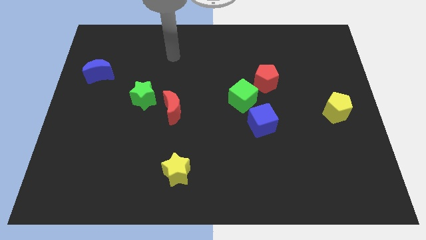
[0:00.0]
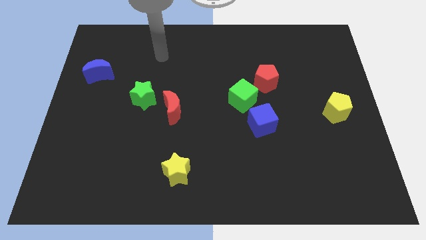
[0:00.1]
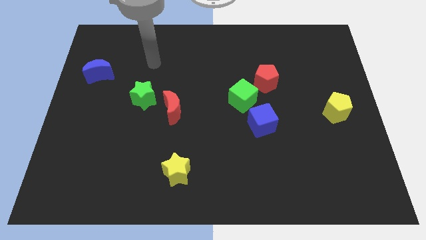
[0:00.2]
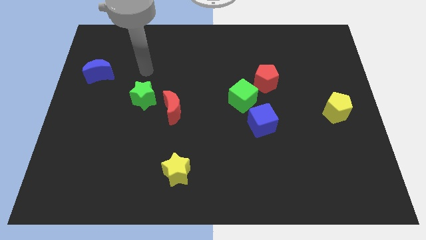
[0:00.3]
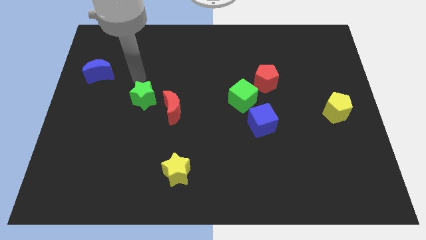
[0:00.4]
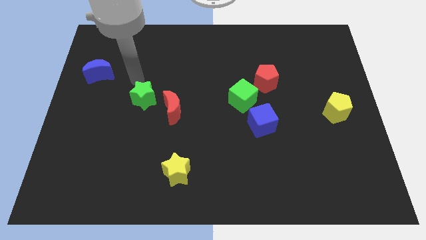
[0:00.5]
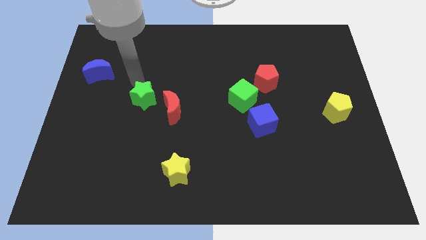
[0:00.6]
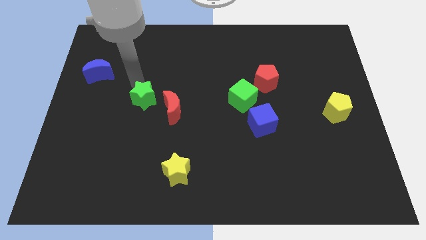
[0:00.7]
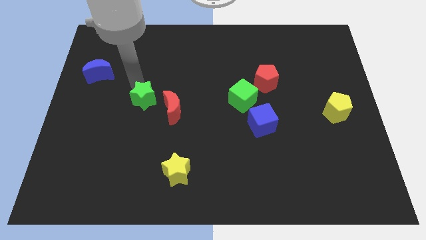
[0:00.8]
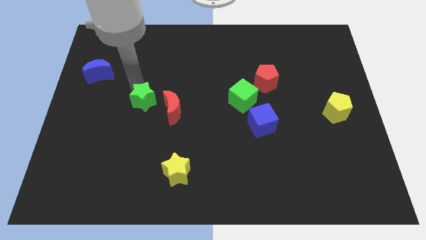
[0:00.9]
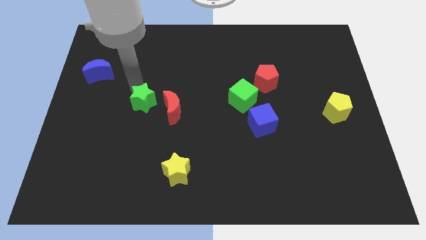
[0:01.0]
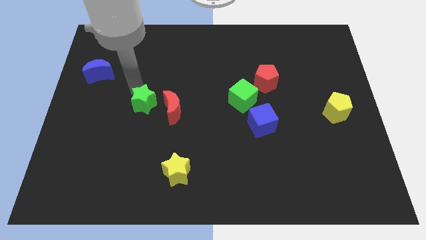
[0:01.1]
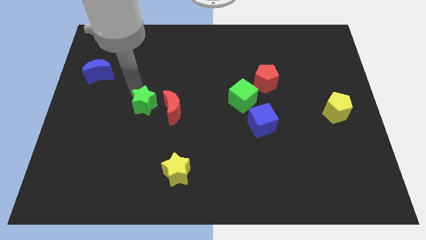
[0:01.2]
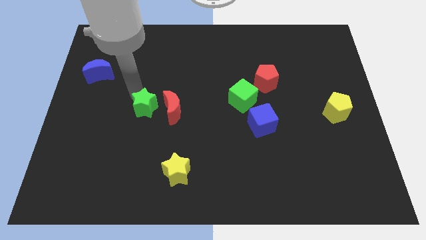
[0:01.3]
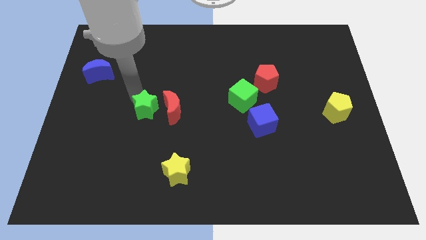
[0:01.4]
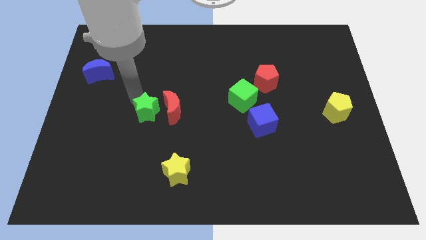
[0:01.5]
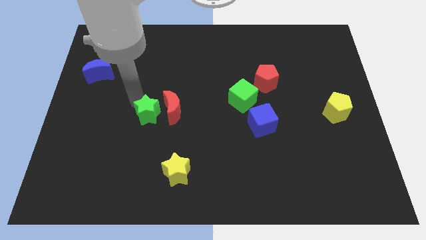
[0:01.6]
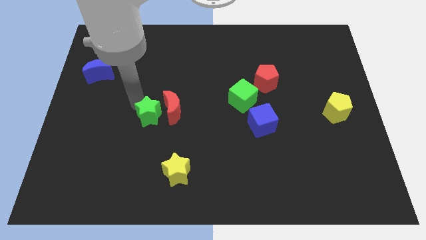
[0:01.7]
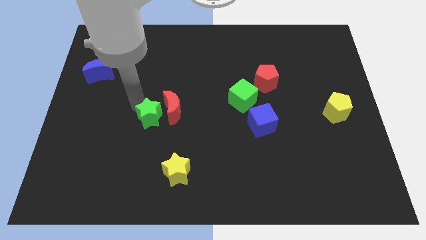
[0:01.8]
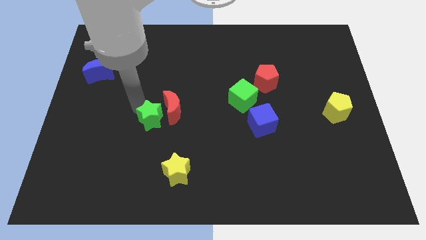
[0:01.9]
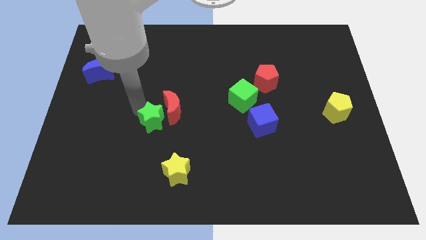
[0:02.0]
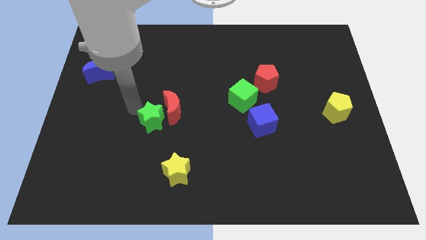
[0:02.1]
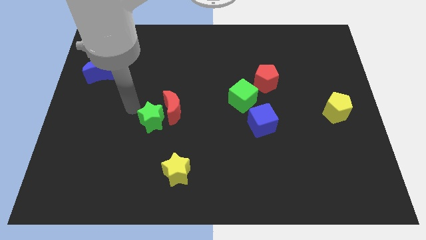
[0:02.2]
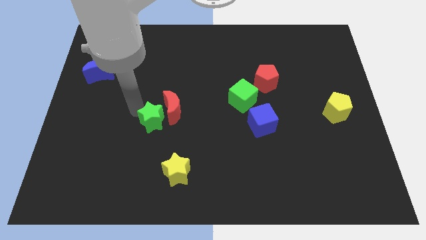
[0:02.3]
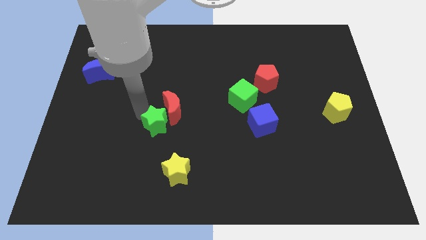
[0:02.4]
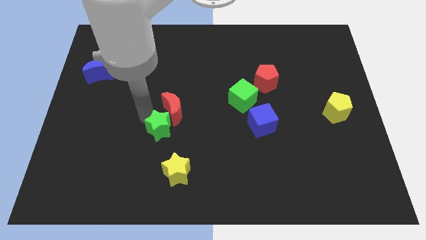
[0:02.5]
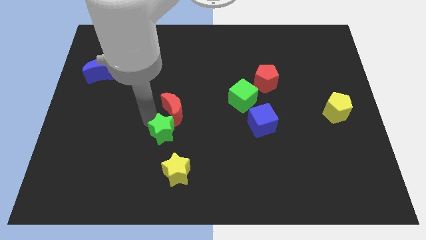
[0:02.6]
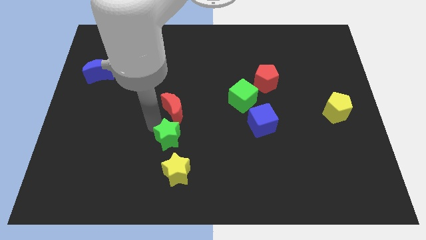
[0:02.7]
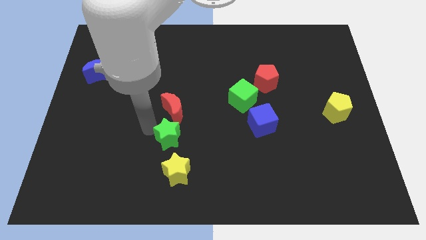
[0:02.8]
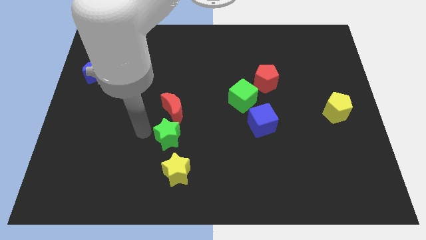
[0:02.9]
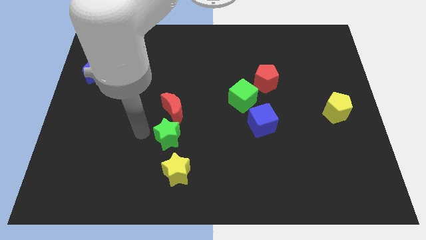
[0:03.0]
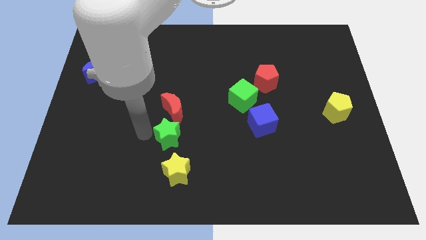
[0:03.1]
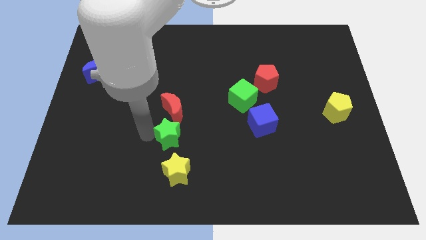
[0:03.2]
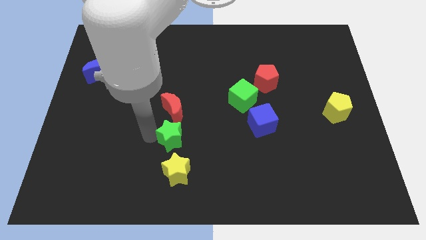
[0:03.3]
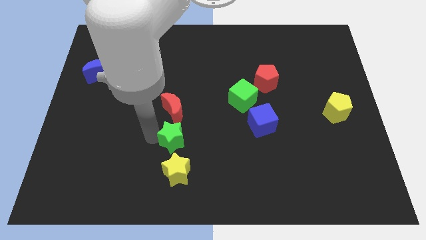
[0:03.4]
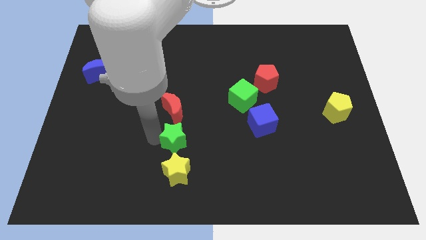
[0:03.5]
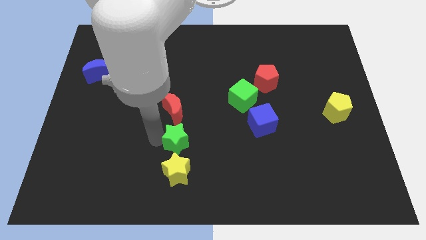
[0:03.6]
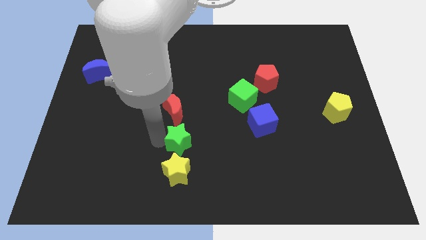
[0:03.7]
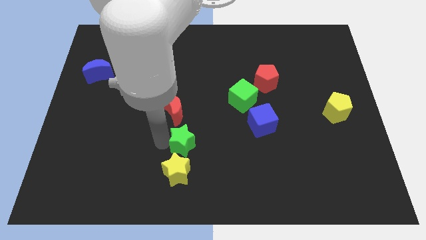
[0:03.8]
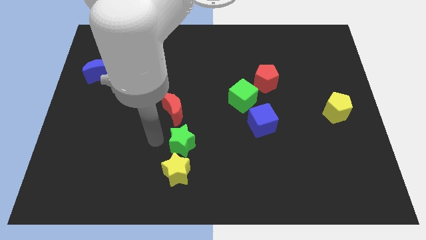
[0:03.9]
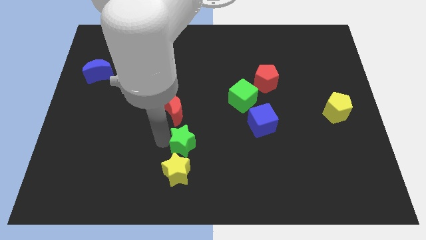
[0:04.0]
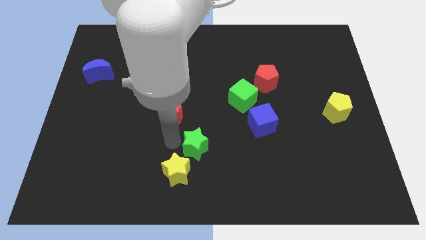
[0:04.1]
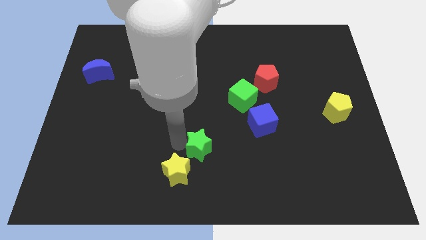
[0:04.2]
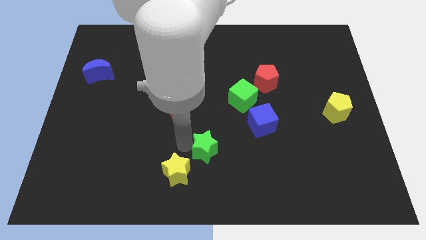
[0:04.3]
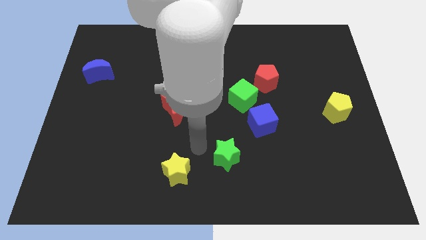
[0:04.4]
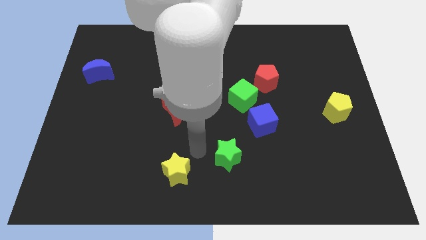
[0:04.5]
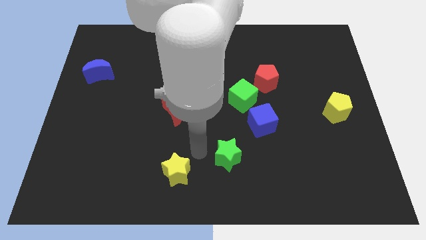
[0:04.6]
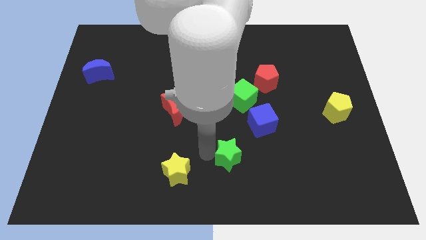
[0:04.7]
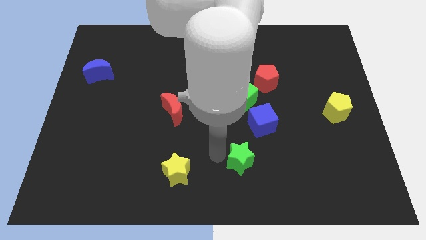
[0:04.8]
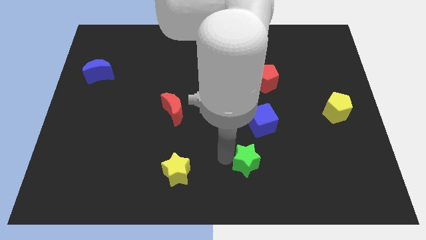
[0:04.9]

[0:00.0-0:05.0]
put the green star below the blue cube

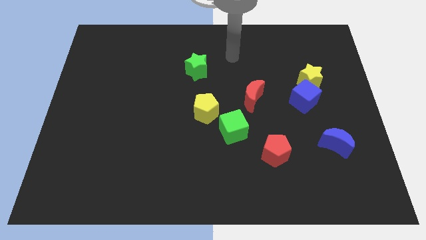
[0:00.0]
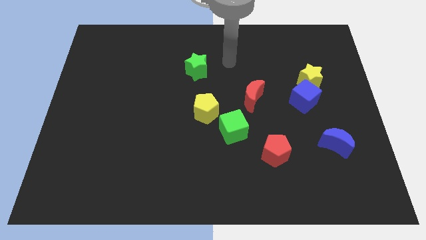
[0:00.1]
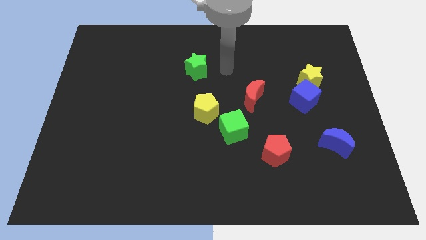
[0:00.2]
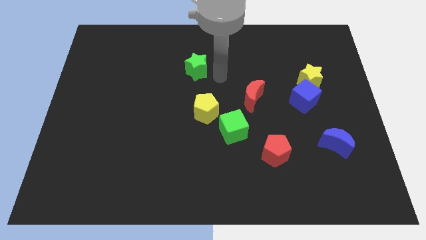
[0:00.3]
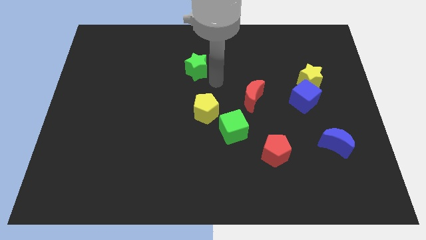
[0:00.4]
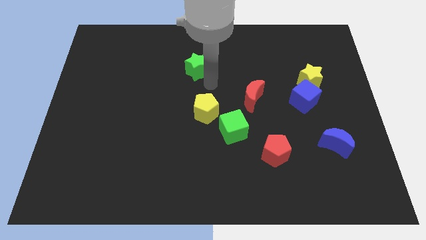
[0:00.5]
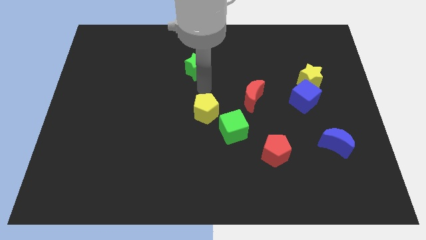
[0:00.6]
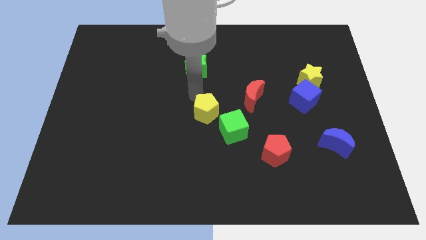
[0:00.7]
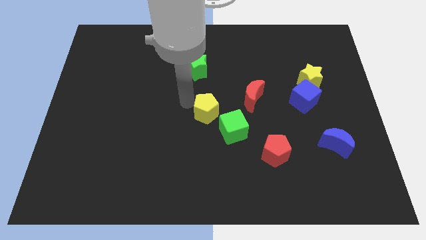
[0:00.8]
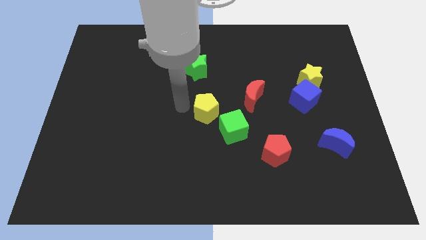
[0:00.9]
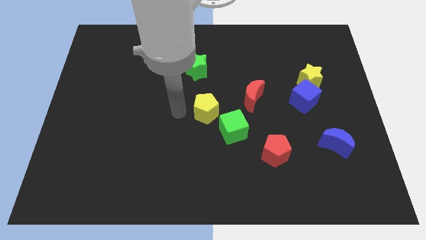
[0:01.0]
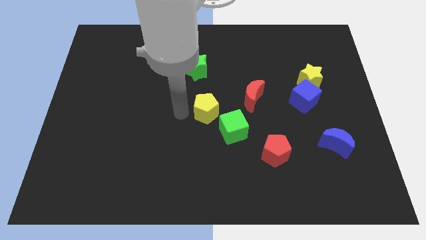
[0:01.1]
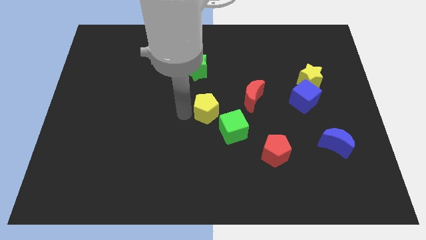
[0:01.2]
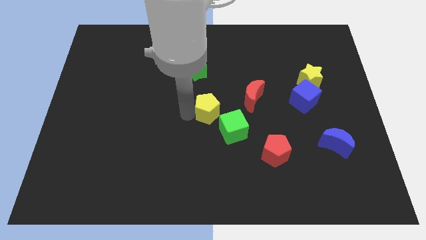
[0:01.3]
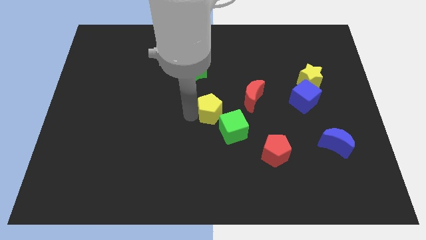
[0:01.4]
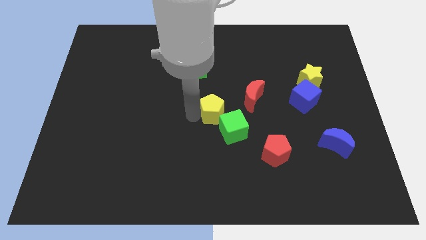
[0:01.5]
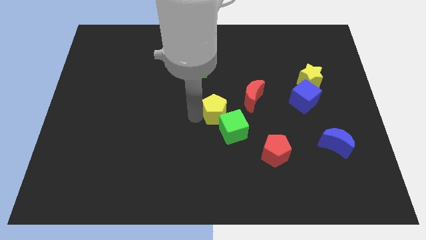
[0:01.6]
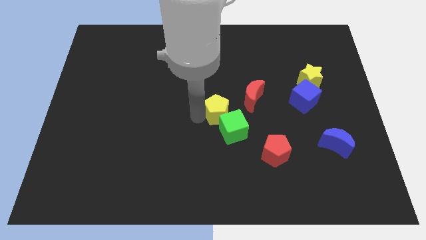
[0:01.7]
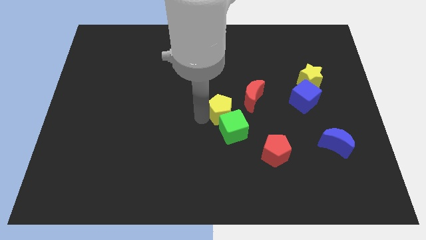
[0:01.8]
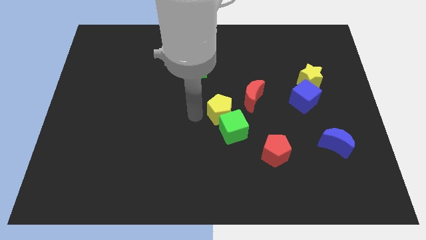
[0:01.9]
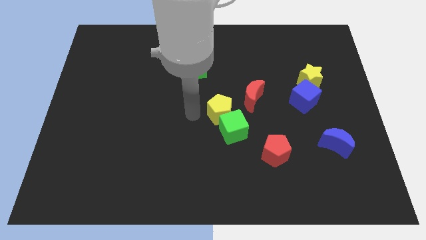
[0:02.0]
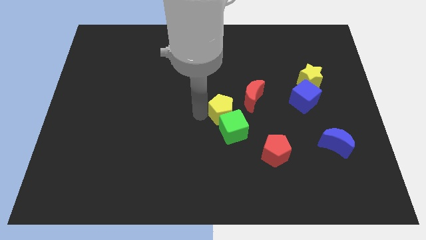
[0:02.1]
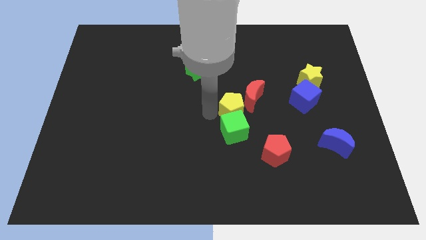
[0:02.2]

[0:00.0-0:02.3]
move the yellow pentagon to the top right side of the green cube

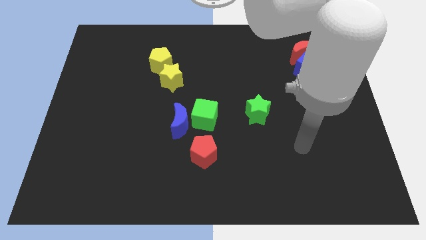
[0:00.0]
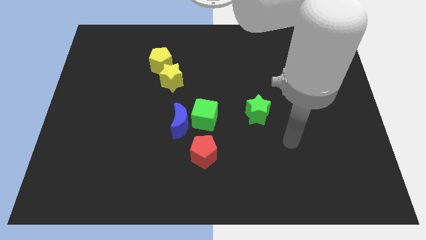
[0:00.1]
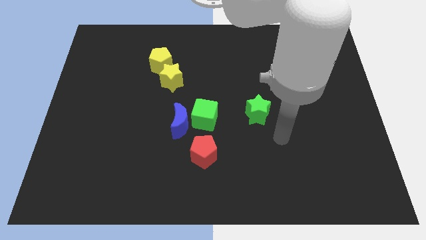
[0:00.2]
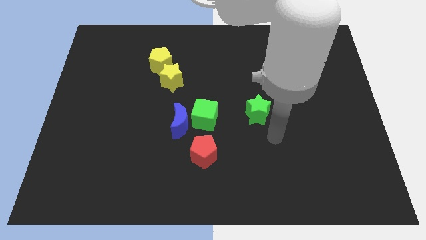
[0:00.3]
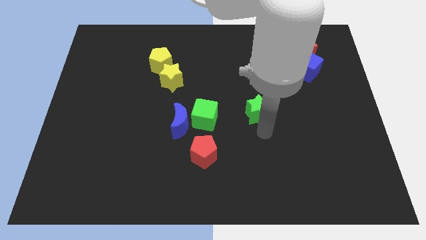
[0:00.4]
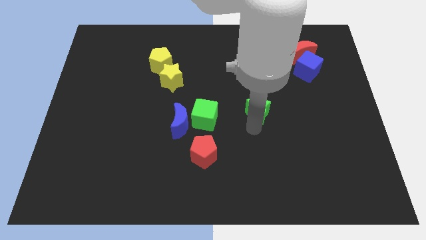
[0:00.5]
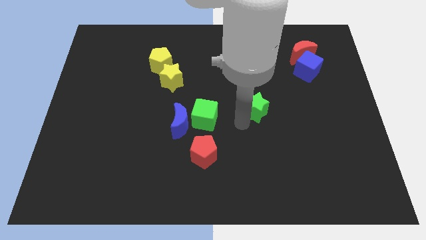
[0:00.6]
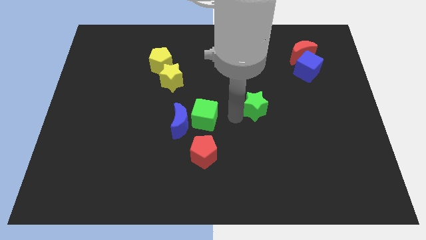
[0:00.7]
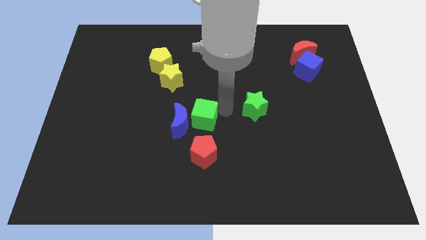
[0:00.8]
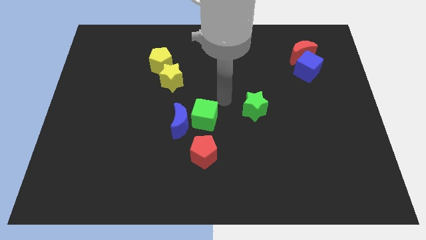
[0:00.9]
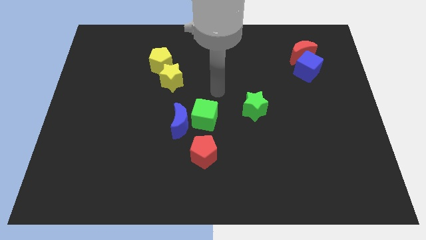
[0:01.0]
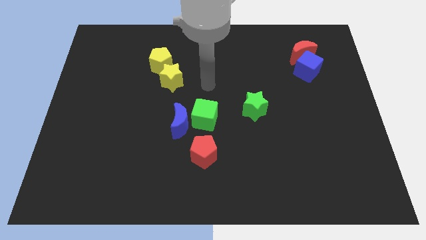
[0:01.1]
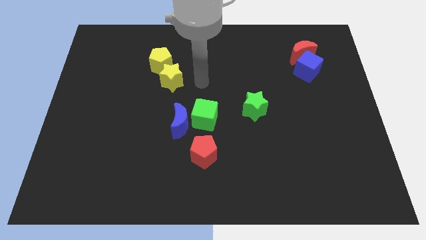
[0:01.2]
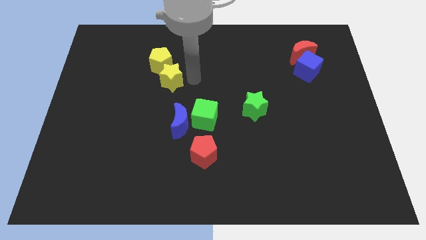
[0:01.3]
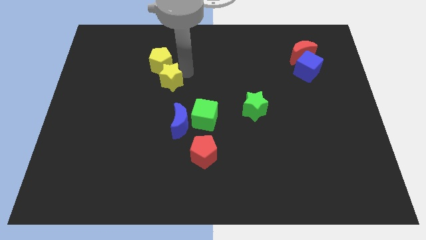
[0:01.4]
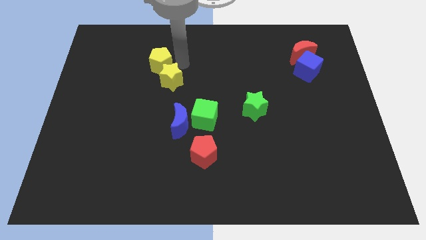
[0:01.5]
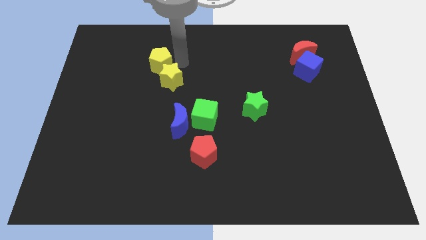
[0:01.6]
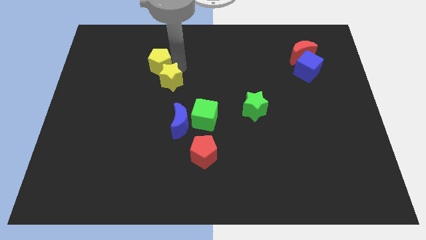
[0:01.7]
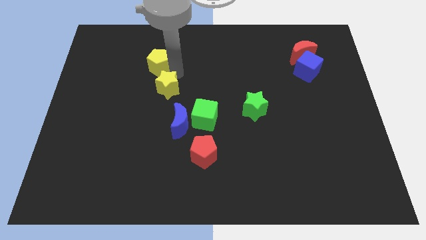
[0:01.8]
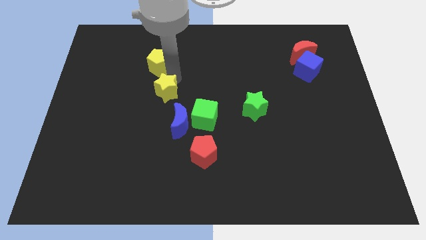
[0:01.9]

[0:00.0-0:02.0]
put the yellow star to the top left side of the blue moon
